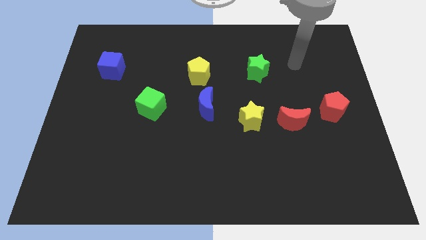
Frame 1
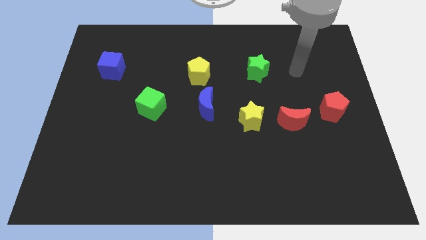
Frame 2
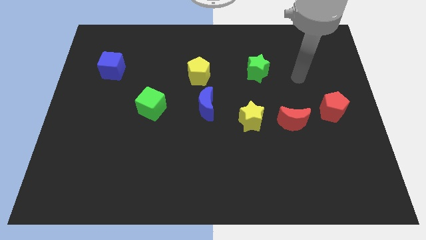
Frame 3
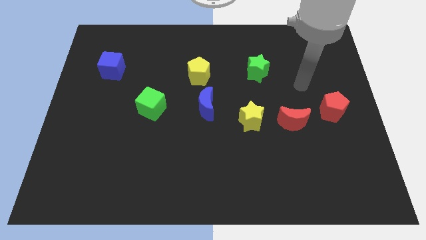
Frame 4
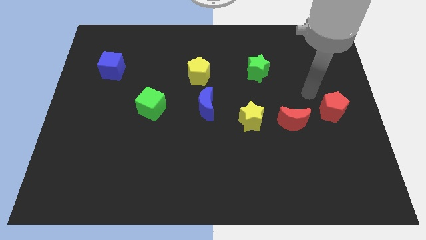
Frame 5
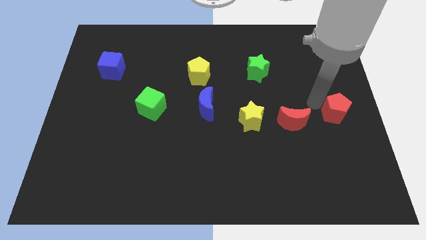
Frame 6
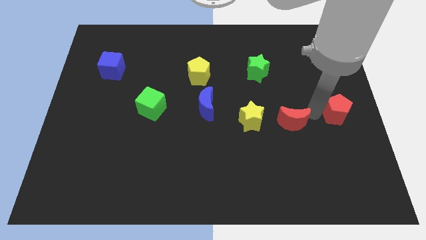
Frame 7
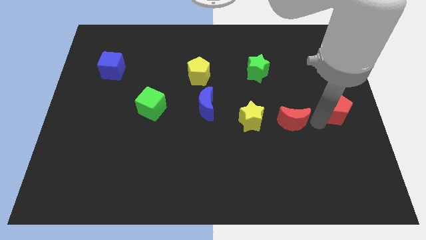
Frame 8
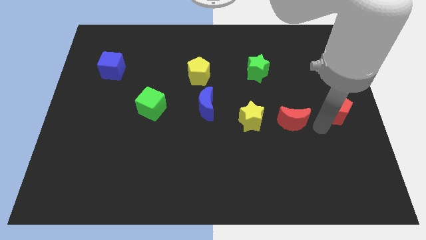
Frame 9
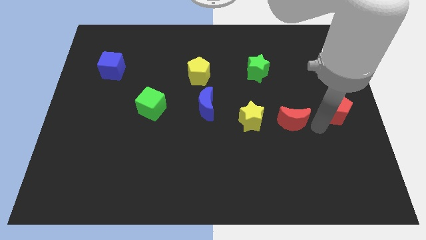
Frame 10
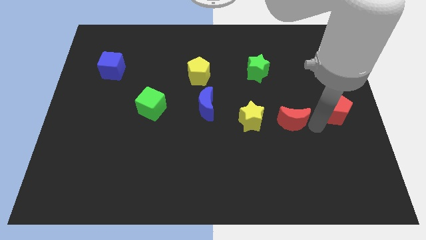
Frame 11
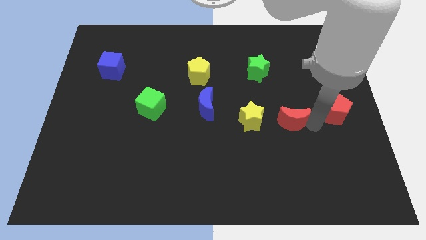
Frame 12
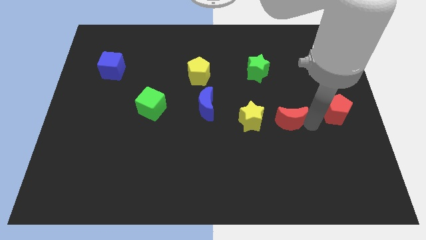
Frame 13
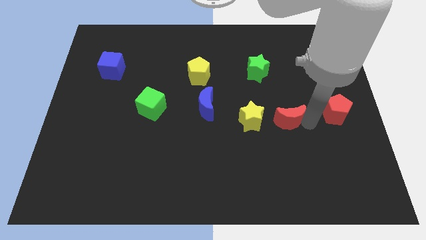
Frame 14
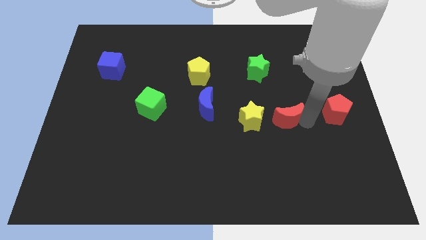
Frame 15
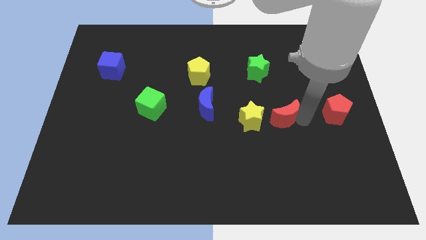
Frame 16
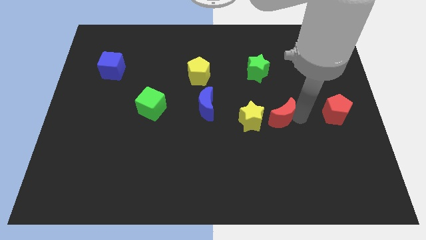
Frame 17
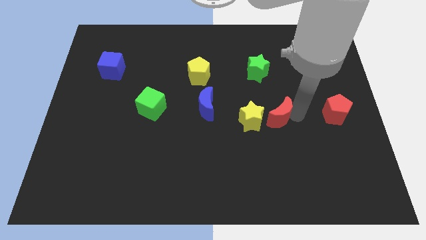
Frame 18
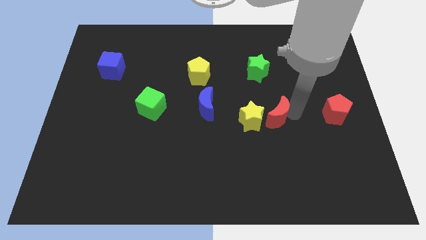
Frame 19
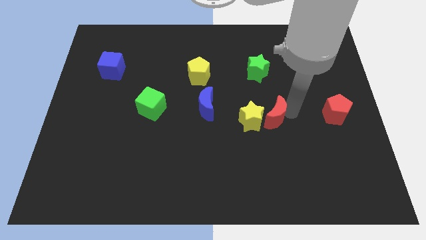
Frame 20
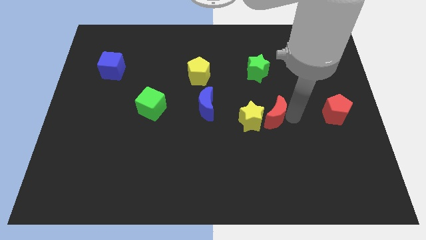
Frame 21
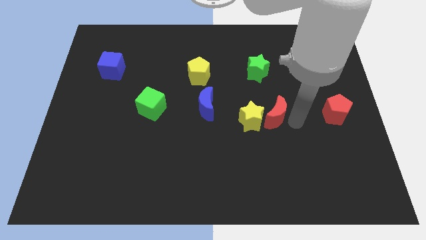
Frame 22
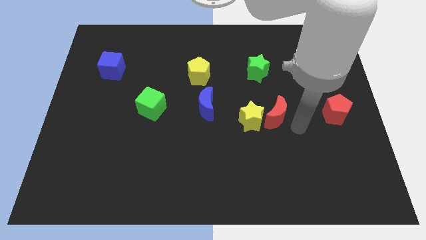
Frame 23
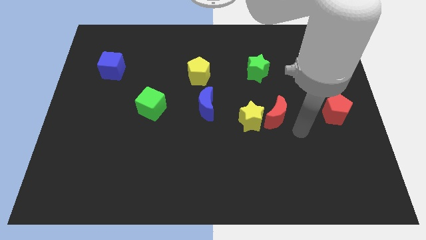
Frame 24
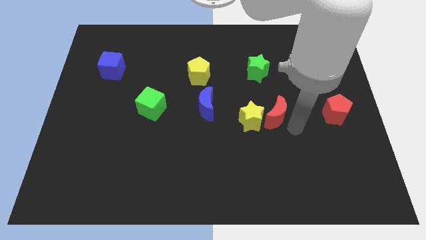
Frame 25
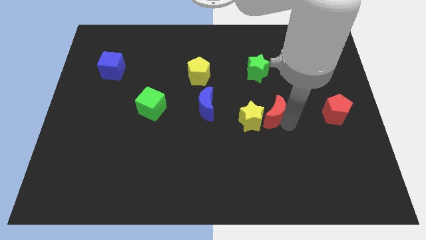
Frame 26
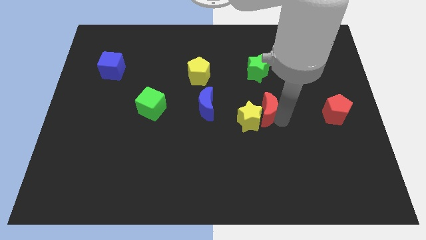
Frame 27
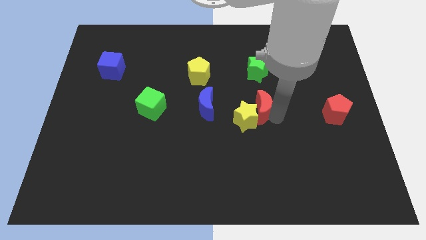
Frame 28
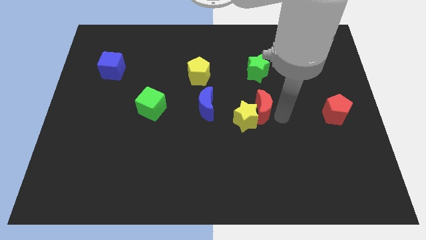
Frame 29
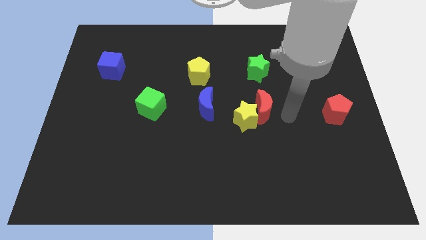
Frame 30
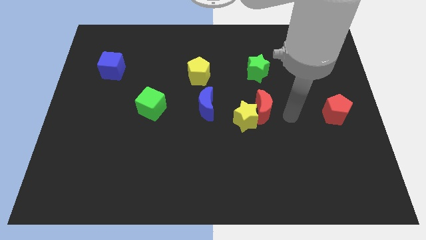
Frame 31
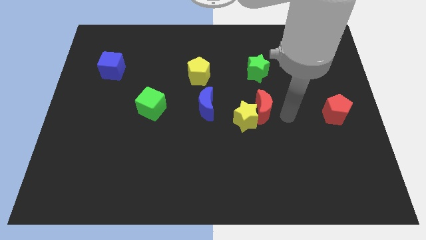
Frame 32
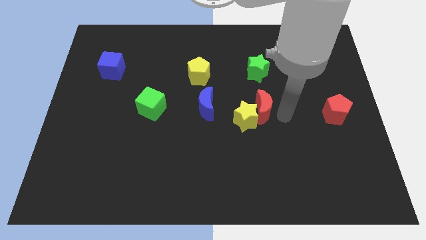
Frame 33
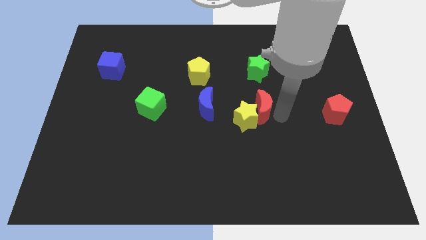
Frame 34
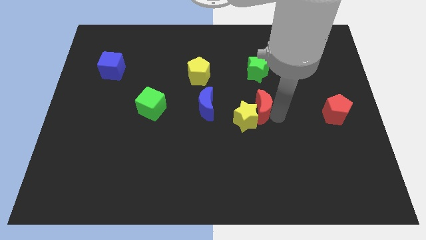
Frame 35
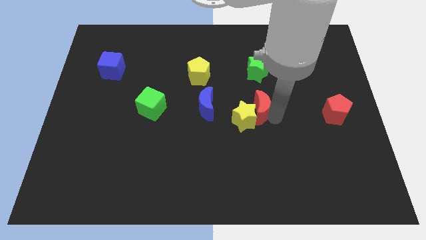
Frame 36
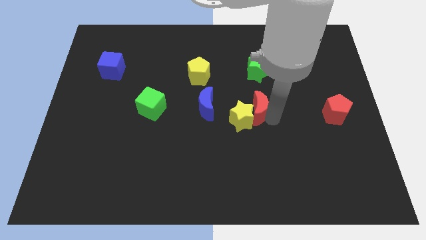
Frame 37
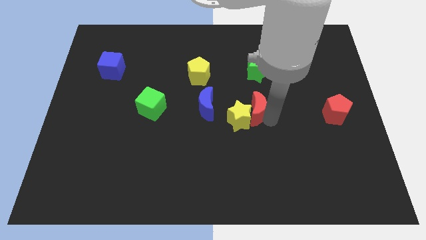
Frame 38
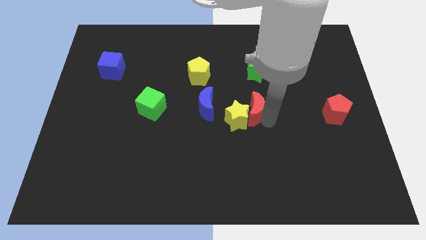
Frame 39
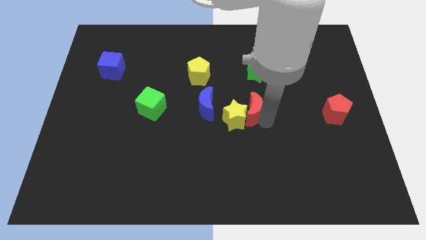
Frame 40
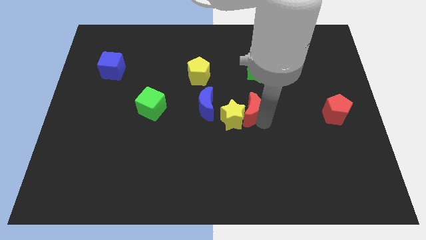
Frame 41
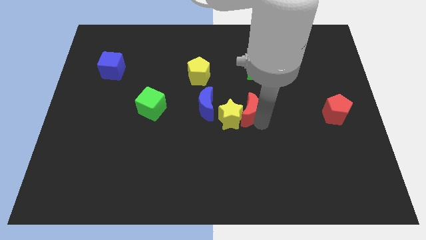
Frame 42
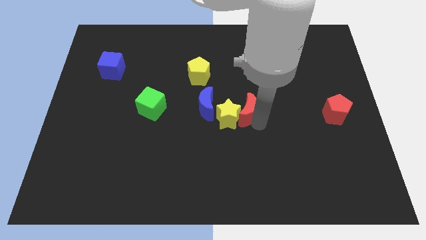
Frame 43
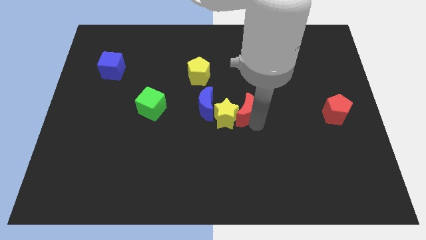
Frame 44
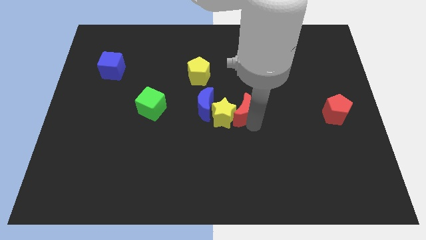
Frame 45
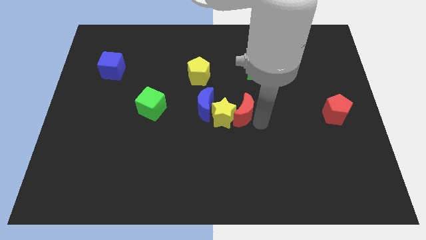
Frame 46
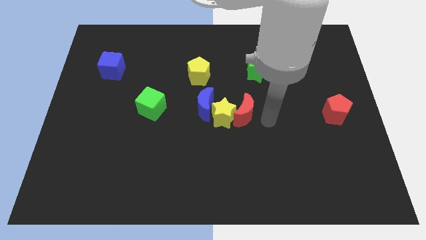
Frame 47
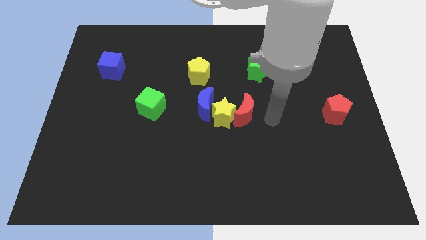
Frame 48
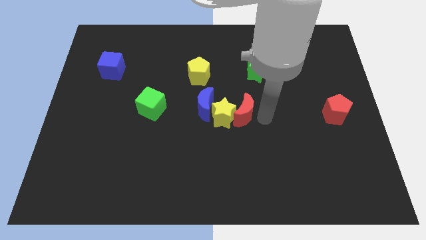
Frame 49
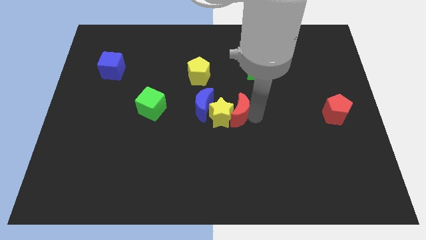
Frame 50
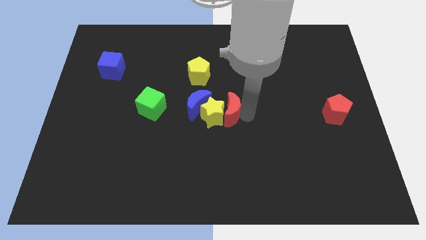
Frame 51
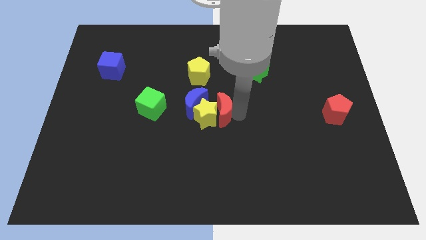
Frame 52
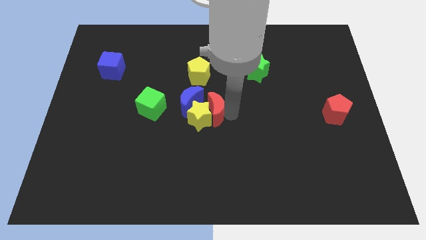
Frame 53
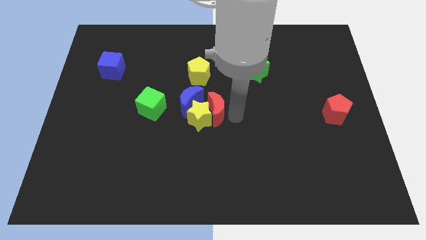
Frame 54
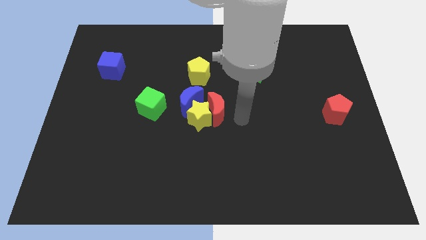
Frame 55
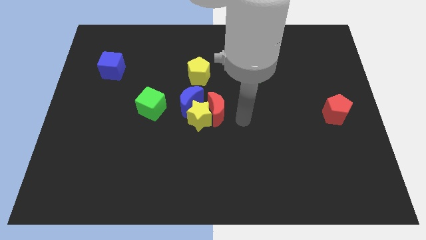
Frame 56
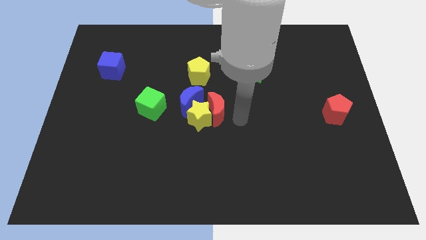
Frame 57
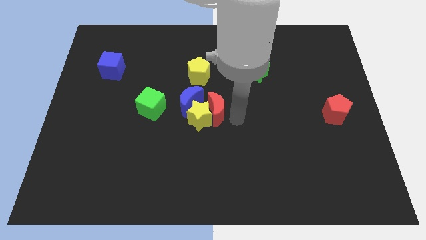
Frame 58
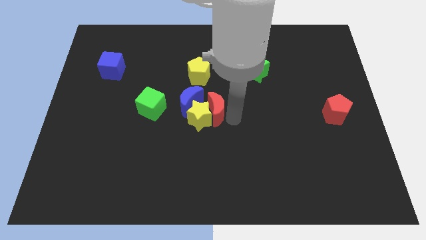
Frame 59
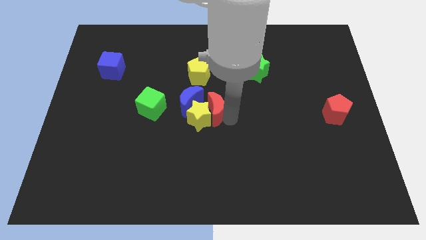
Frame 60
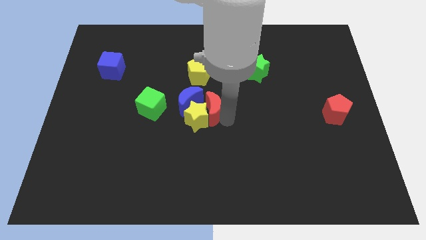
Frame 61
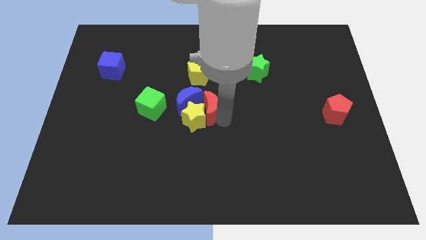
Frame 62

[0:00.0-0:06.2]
move the red moon close to the blue moon

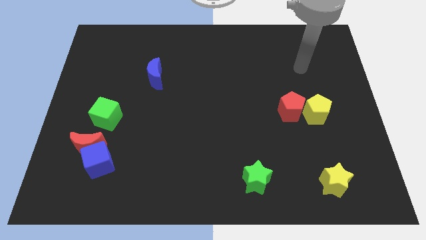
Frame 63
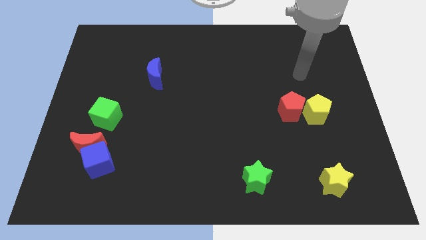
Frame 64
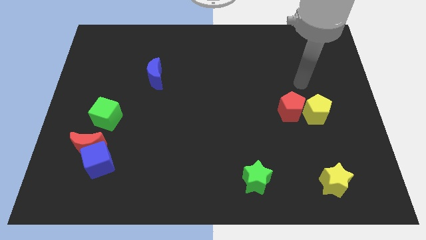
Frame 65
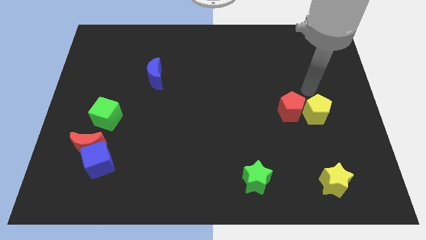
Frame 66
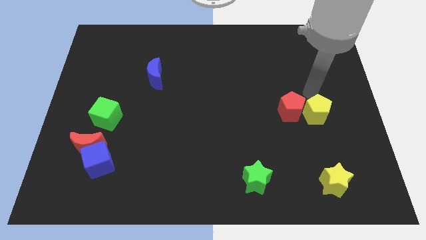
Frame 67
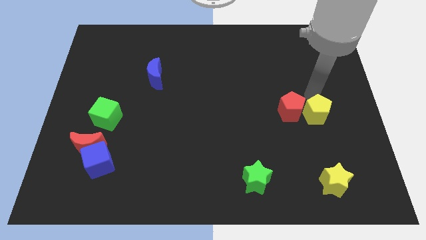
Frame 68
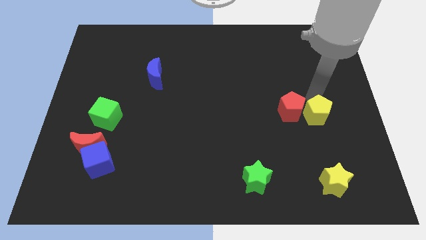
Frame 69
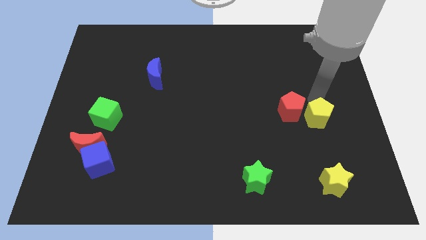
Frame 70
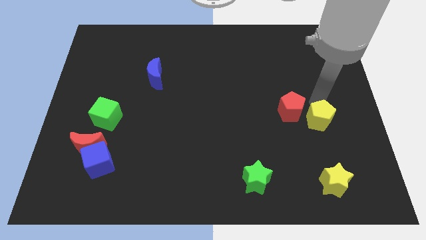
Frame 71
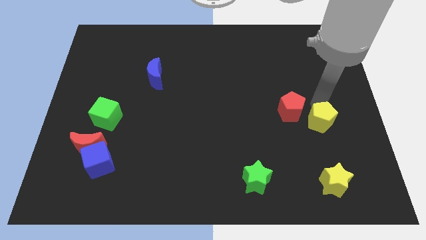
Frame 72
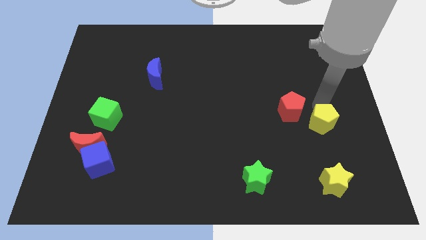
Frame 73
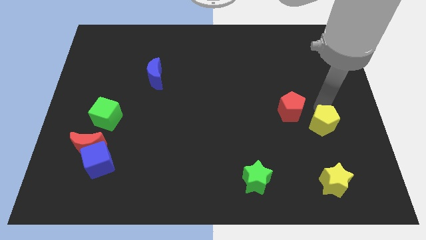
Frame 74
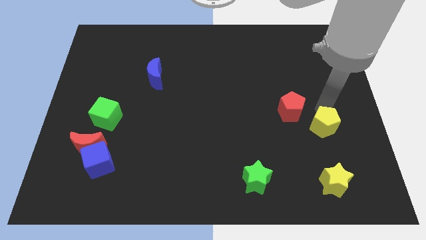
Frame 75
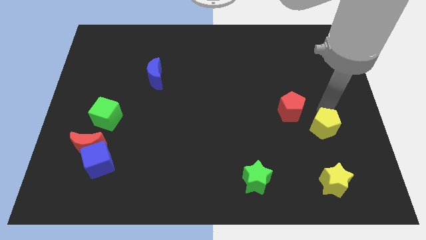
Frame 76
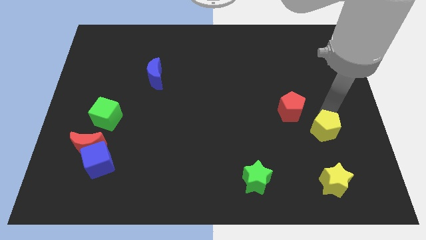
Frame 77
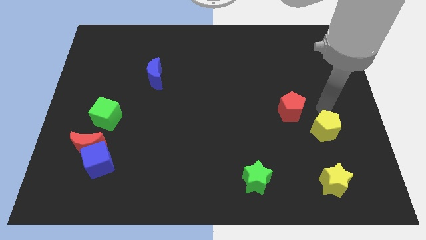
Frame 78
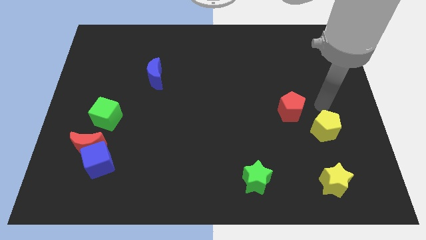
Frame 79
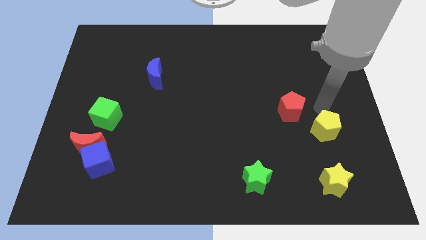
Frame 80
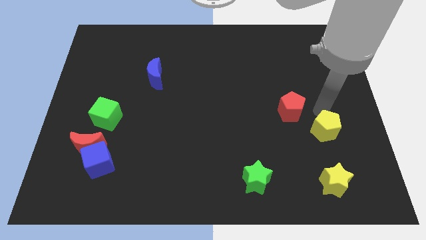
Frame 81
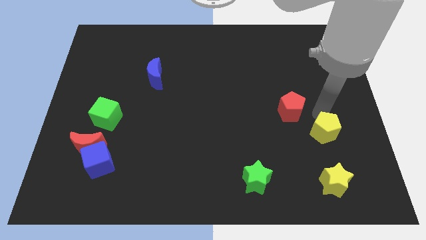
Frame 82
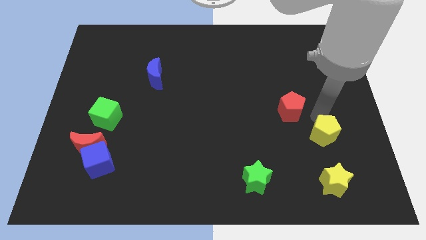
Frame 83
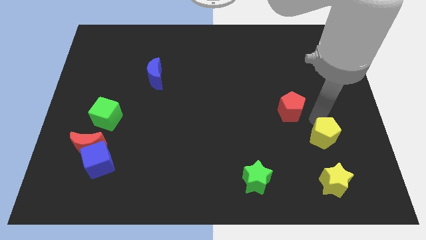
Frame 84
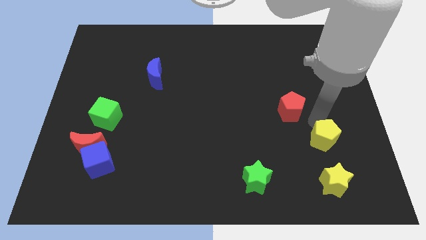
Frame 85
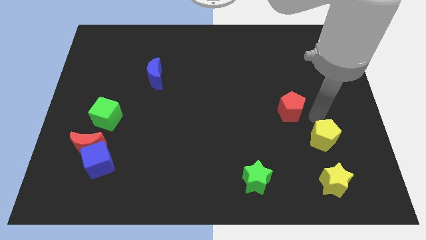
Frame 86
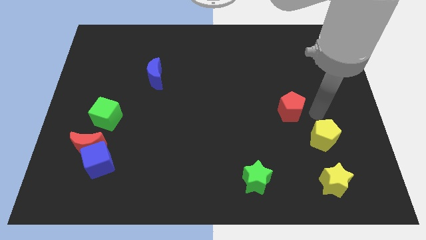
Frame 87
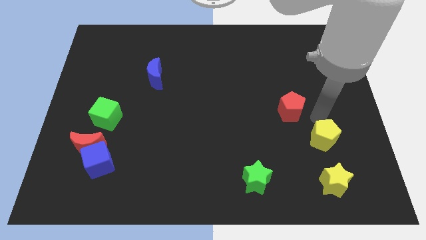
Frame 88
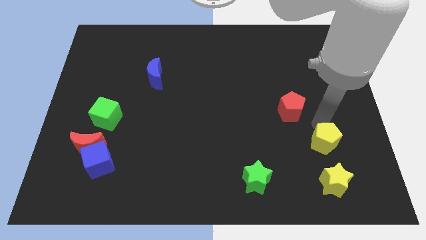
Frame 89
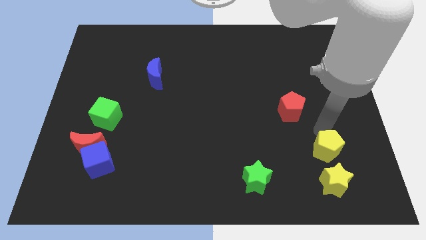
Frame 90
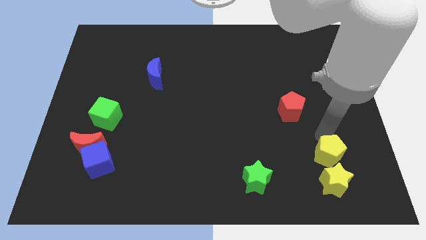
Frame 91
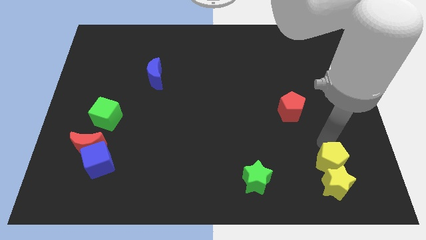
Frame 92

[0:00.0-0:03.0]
push the yellow pentagon towards the yellow star
